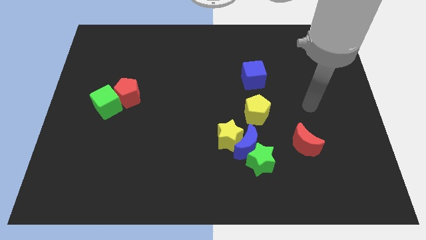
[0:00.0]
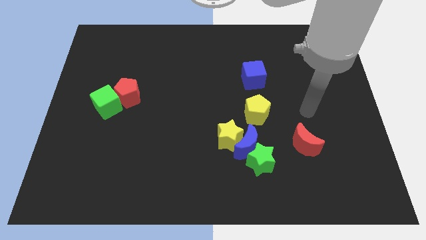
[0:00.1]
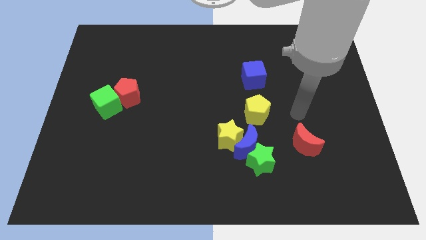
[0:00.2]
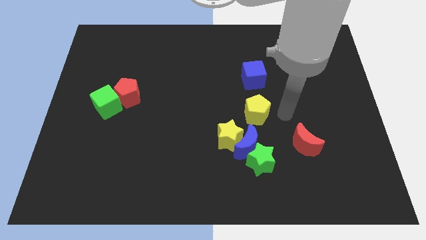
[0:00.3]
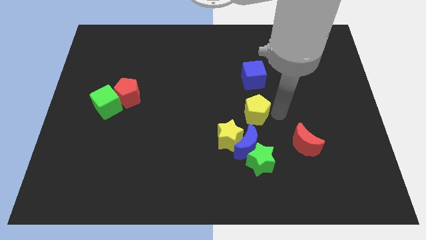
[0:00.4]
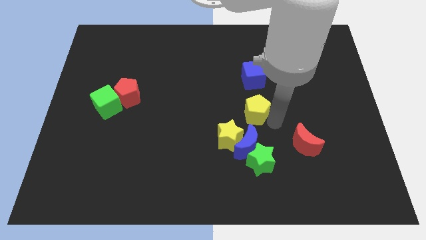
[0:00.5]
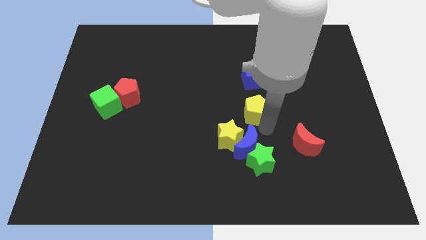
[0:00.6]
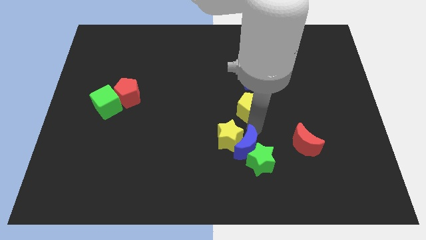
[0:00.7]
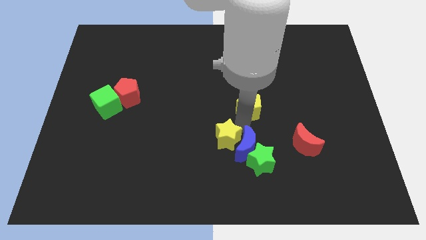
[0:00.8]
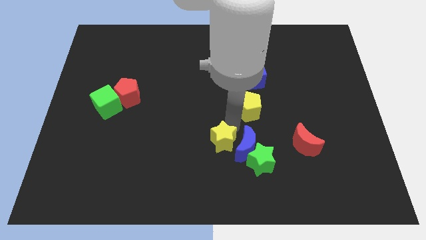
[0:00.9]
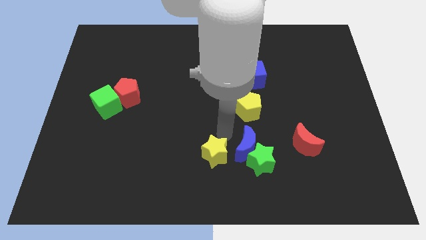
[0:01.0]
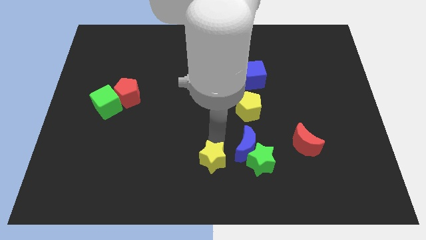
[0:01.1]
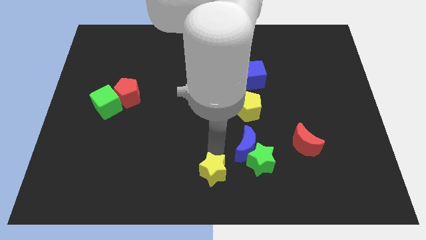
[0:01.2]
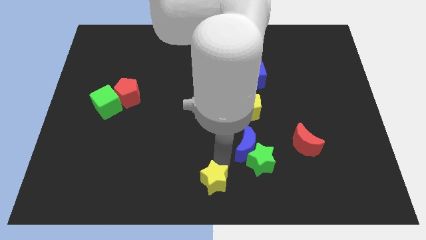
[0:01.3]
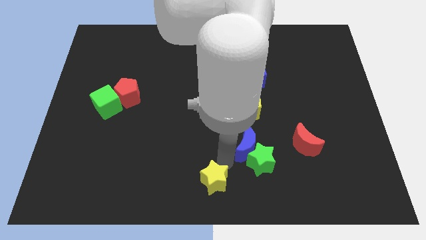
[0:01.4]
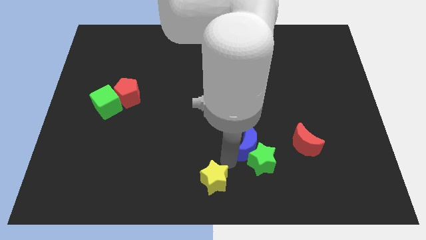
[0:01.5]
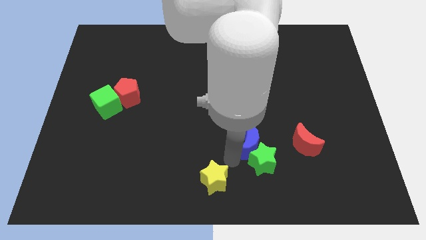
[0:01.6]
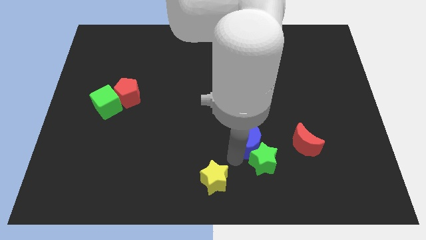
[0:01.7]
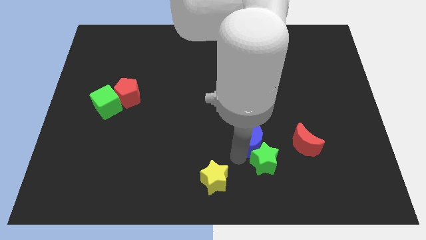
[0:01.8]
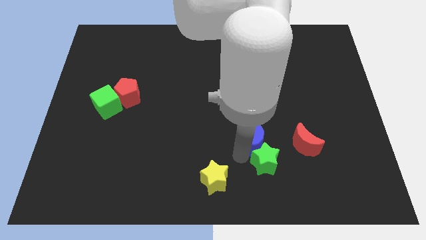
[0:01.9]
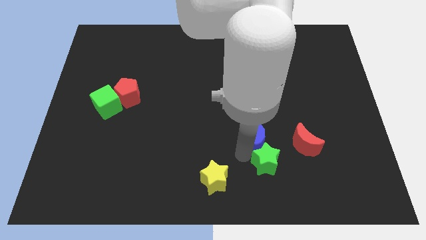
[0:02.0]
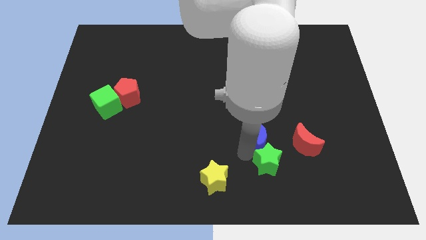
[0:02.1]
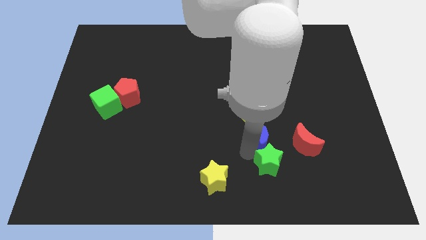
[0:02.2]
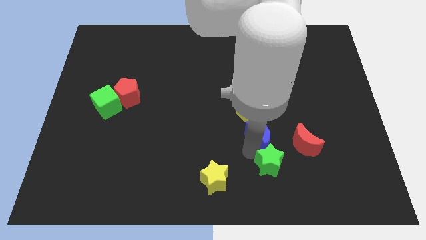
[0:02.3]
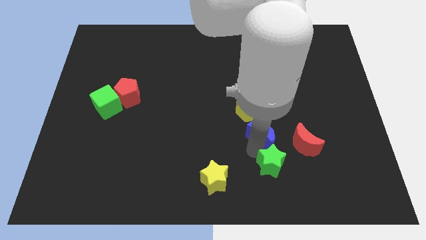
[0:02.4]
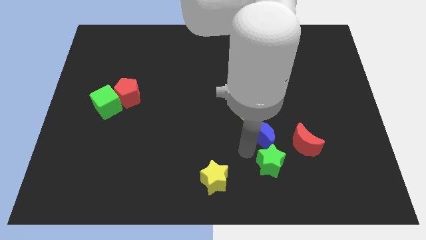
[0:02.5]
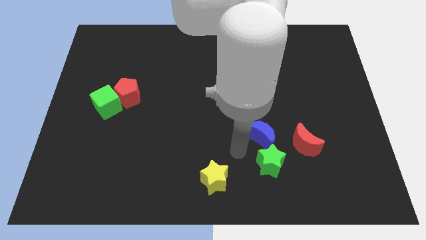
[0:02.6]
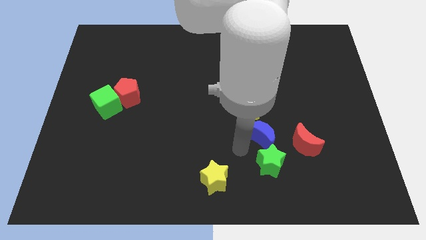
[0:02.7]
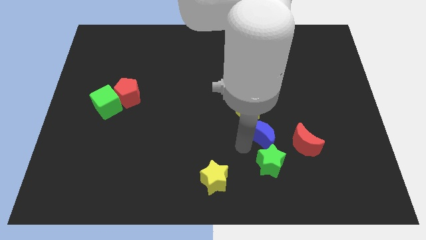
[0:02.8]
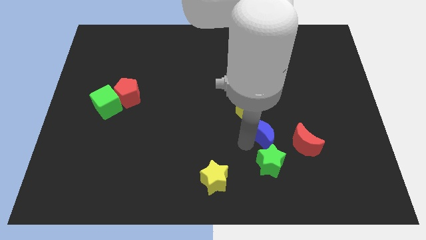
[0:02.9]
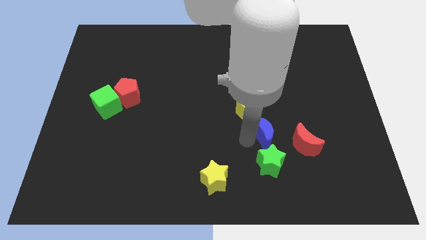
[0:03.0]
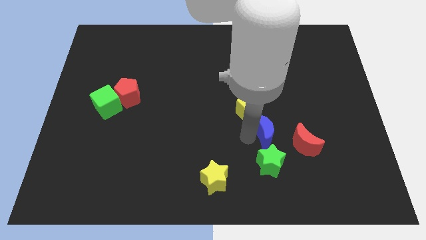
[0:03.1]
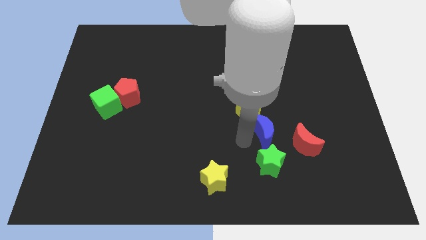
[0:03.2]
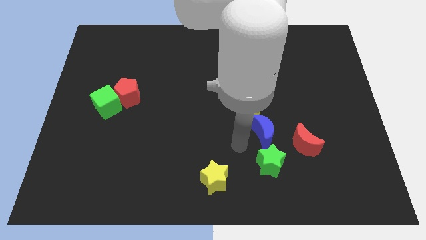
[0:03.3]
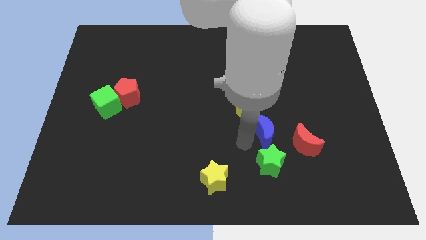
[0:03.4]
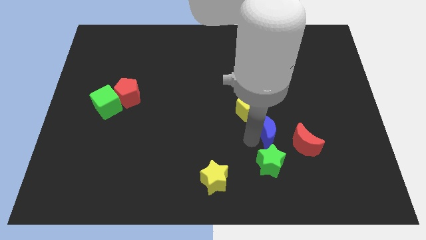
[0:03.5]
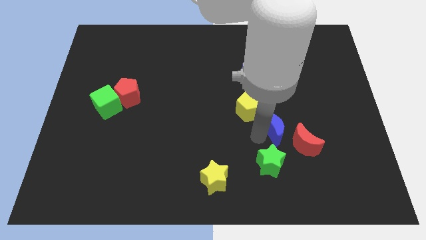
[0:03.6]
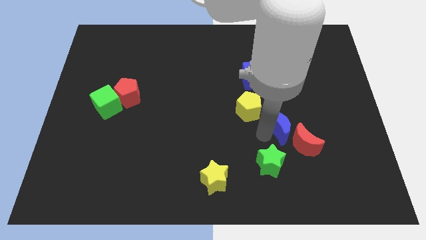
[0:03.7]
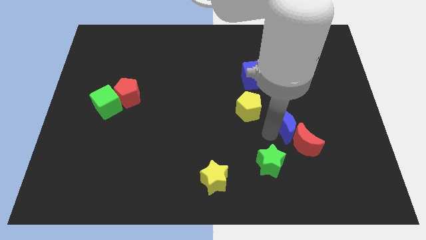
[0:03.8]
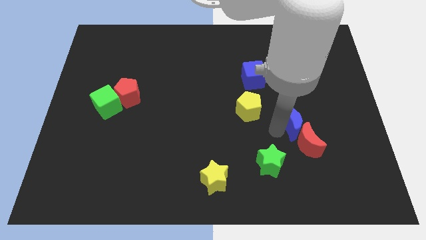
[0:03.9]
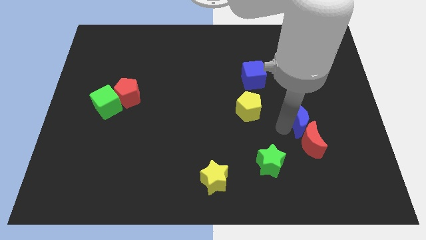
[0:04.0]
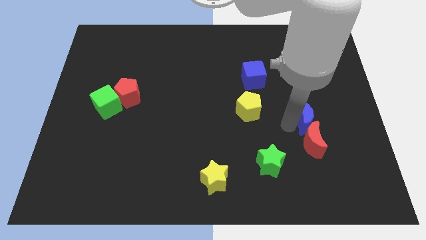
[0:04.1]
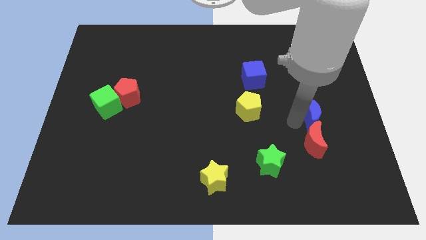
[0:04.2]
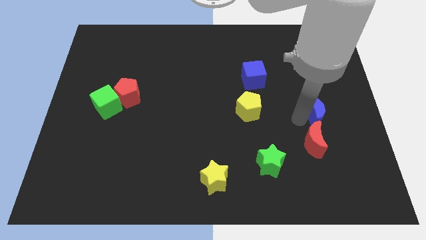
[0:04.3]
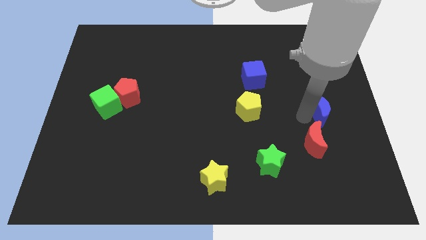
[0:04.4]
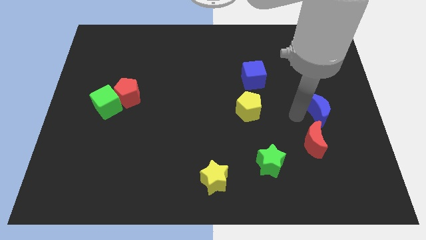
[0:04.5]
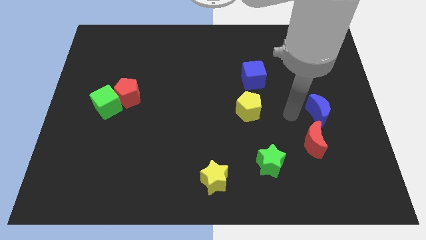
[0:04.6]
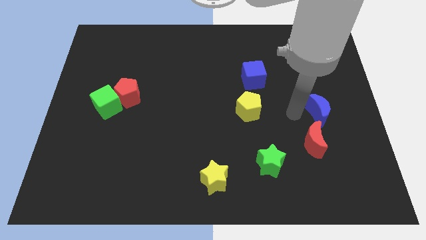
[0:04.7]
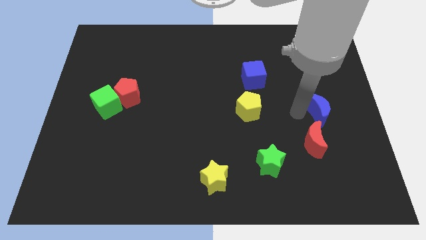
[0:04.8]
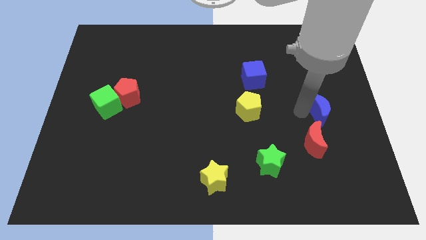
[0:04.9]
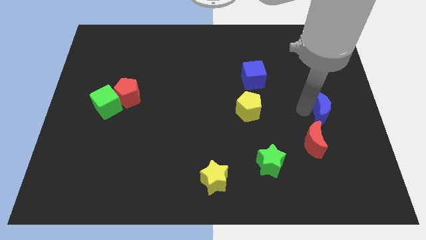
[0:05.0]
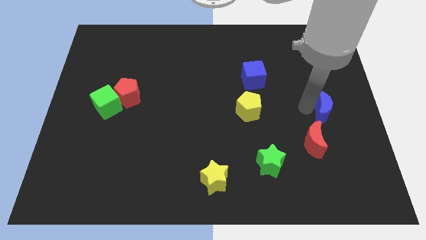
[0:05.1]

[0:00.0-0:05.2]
put the blue moon to the center right

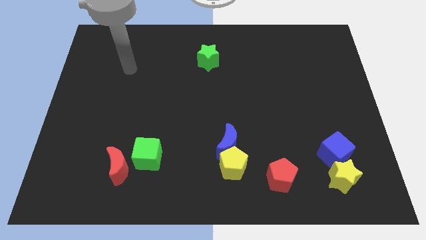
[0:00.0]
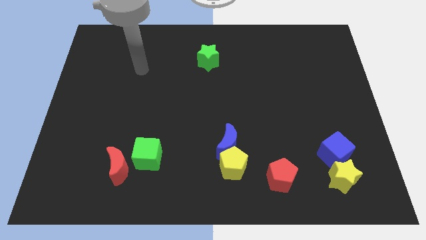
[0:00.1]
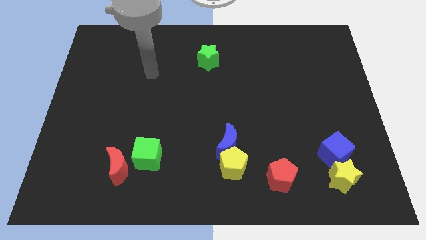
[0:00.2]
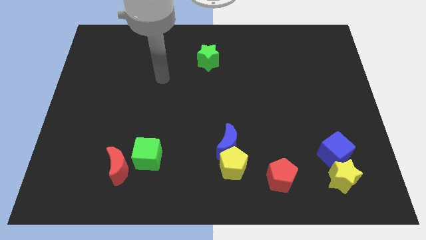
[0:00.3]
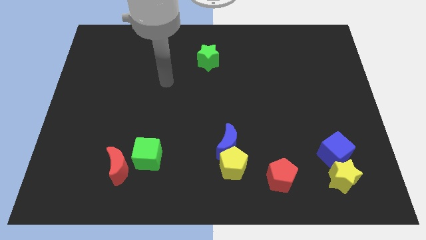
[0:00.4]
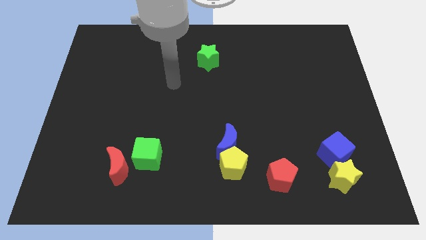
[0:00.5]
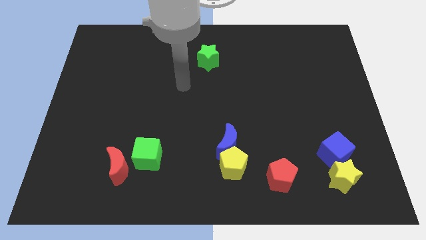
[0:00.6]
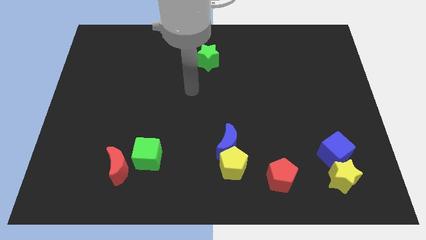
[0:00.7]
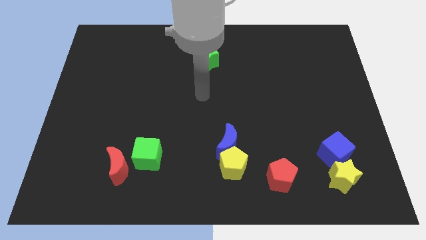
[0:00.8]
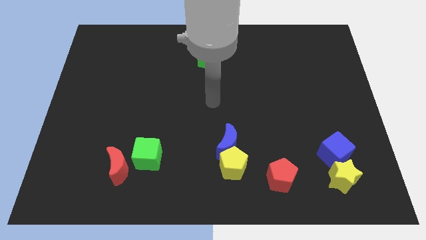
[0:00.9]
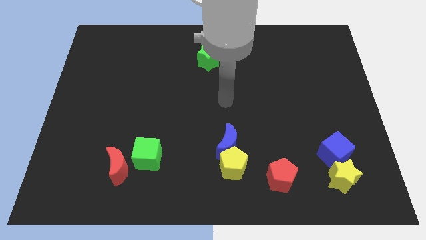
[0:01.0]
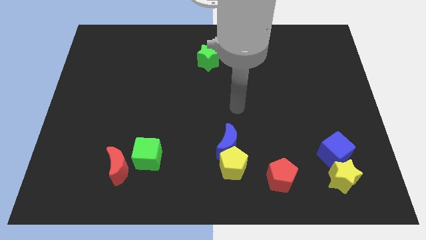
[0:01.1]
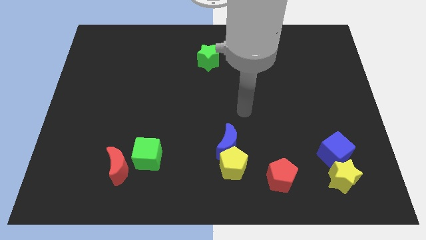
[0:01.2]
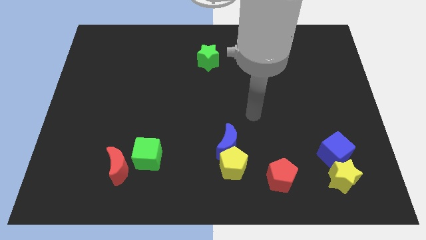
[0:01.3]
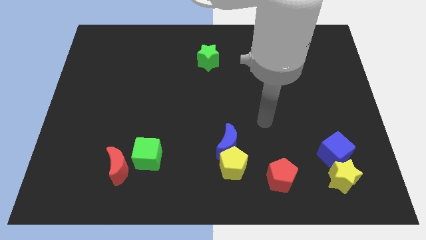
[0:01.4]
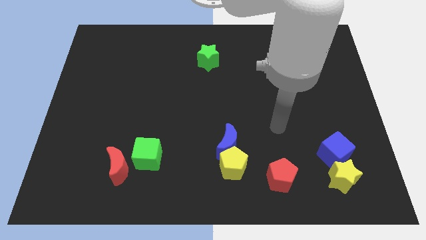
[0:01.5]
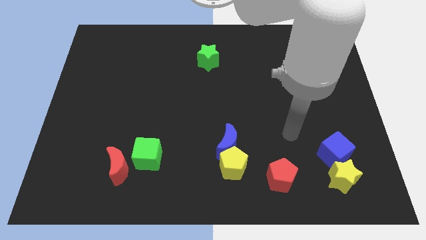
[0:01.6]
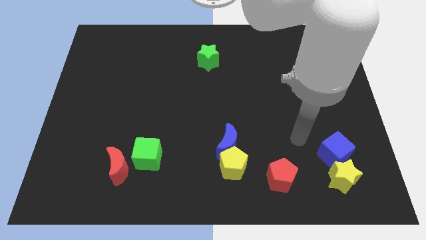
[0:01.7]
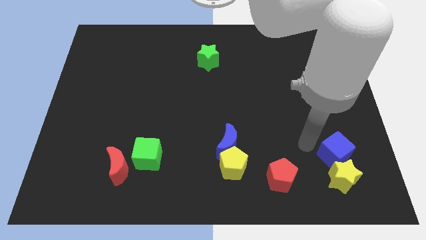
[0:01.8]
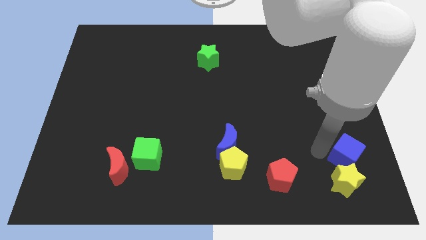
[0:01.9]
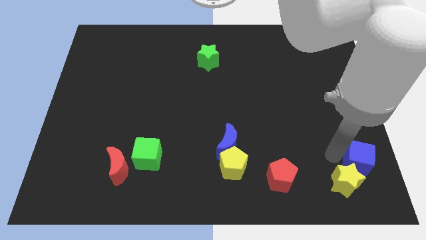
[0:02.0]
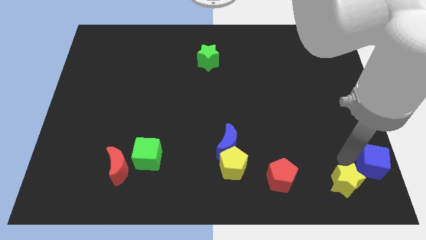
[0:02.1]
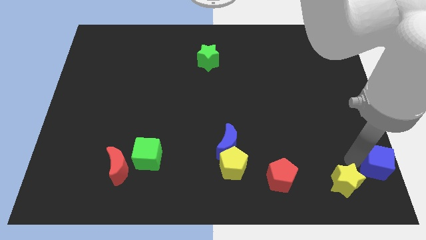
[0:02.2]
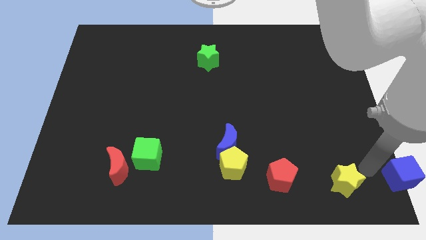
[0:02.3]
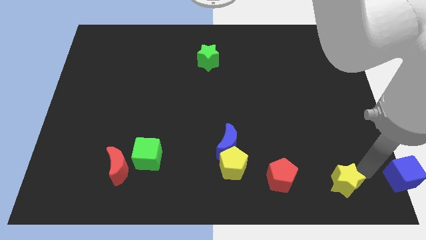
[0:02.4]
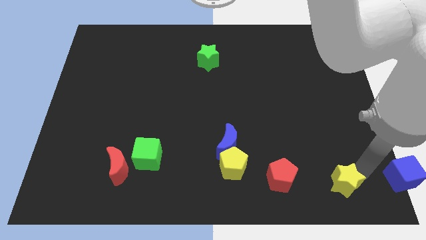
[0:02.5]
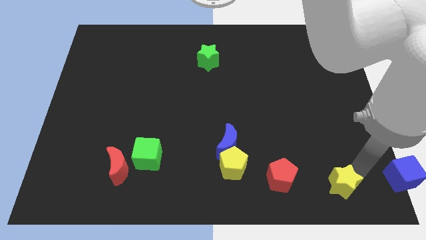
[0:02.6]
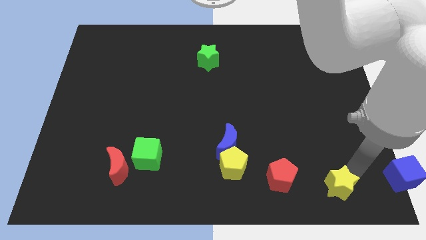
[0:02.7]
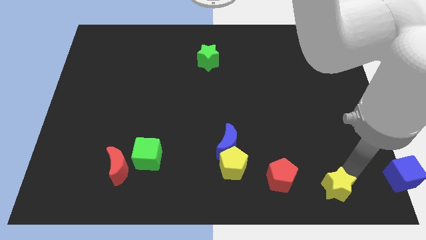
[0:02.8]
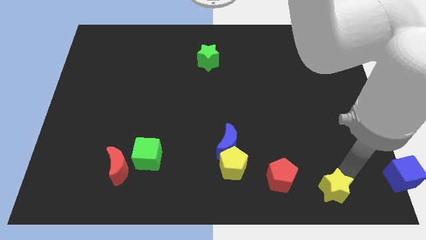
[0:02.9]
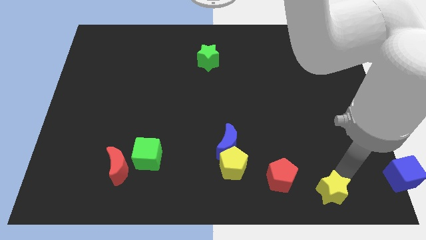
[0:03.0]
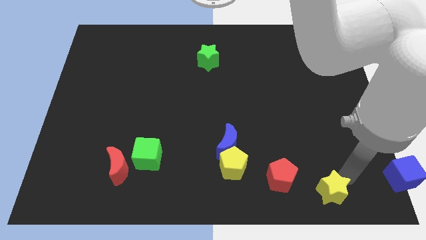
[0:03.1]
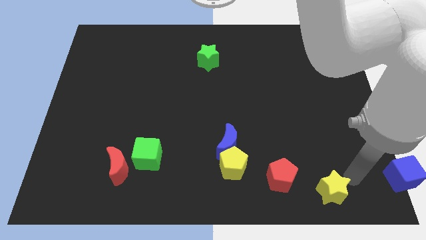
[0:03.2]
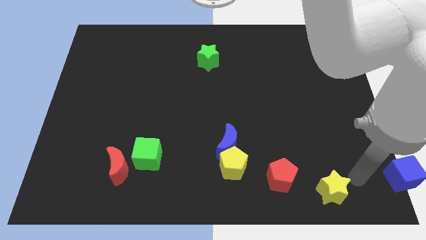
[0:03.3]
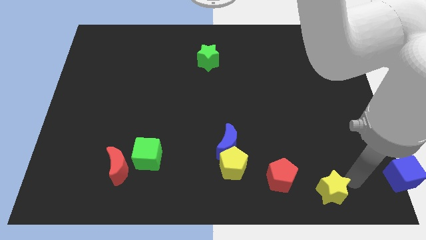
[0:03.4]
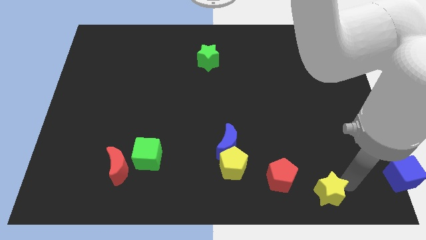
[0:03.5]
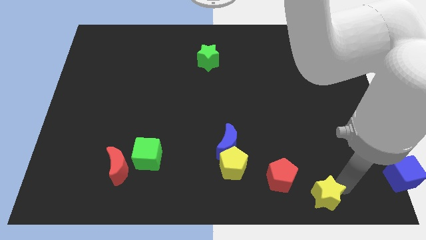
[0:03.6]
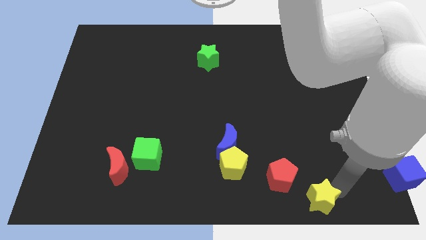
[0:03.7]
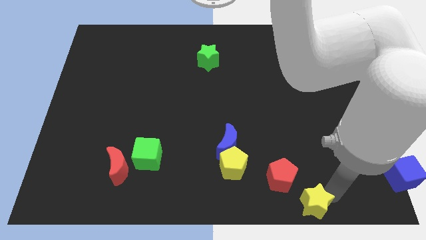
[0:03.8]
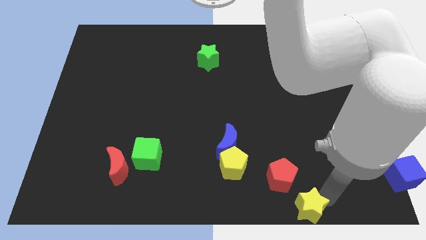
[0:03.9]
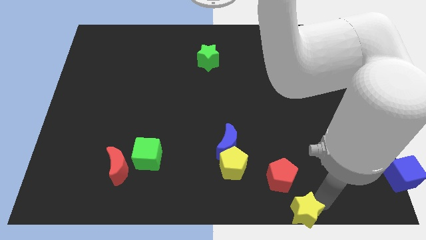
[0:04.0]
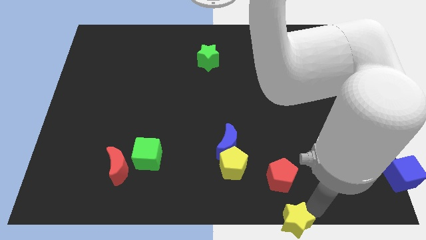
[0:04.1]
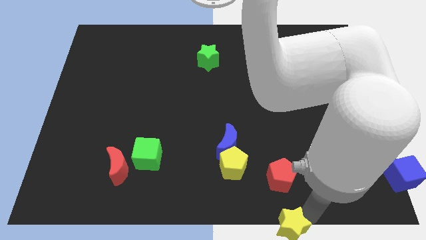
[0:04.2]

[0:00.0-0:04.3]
put the yellow star to the bottom
